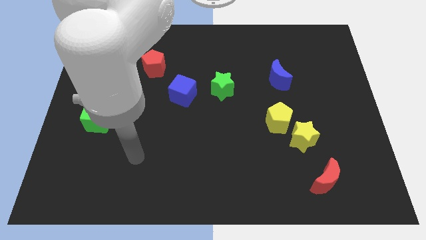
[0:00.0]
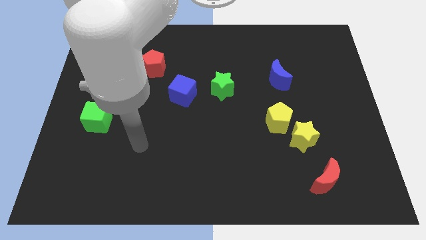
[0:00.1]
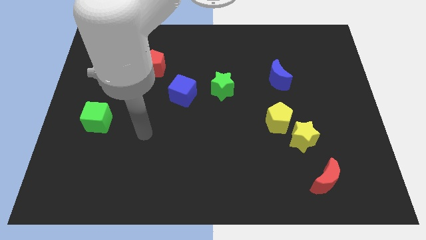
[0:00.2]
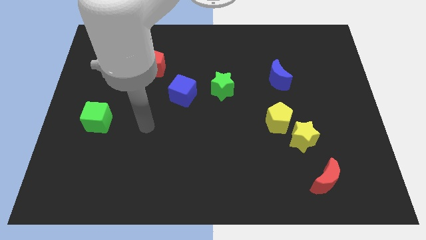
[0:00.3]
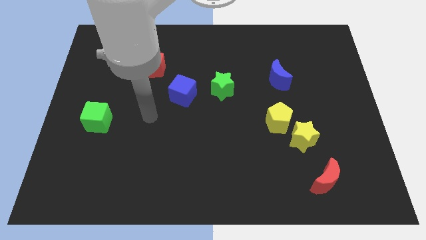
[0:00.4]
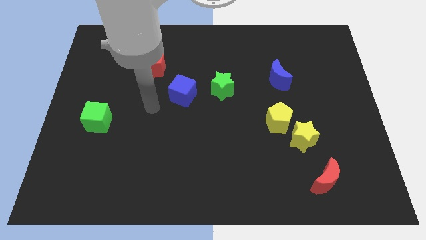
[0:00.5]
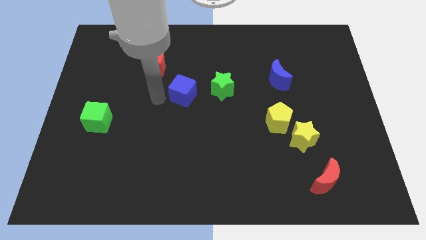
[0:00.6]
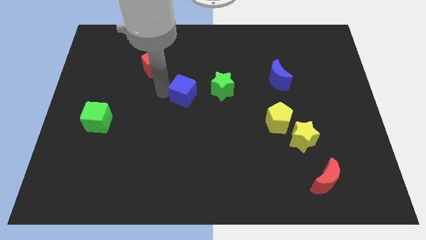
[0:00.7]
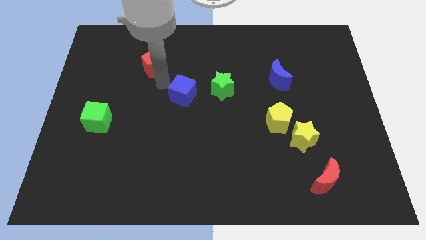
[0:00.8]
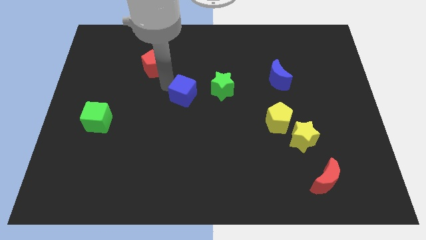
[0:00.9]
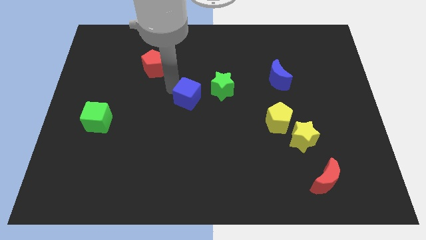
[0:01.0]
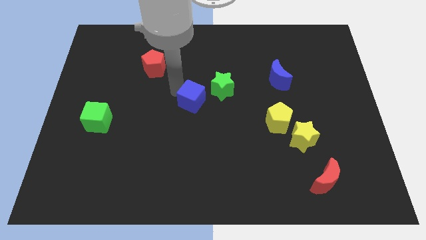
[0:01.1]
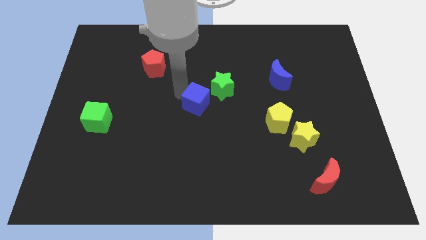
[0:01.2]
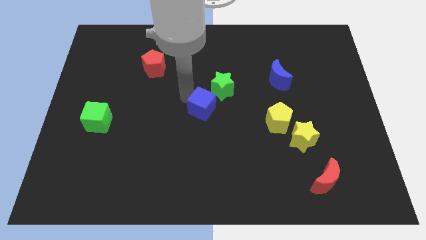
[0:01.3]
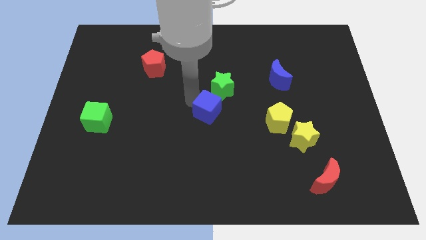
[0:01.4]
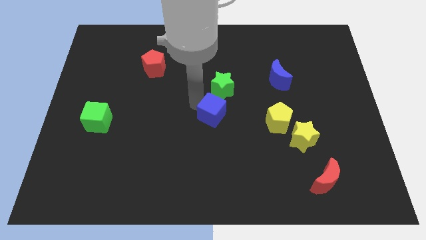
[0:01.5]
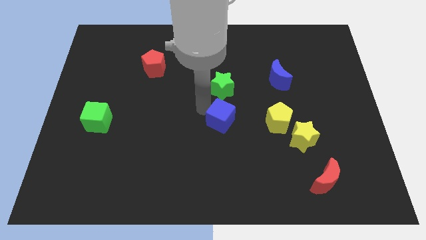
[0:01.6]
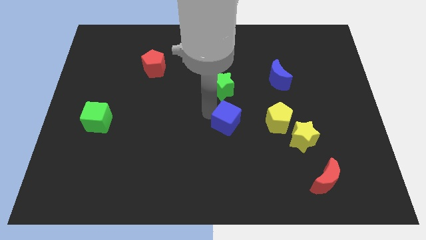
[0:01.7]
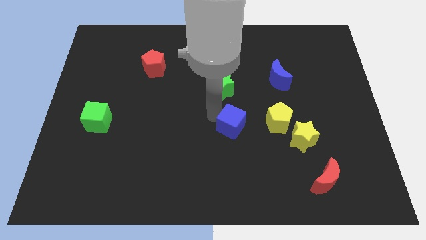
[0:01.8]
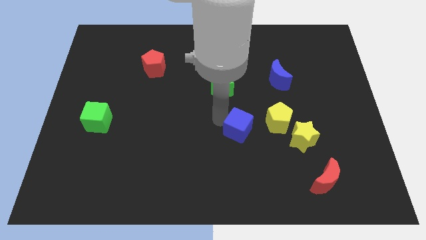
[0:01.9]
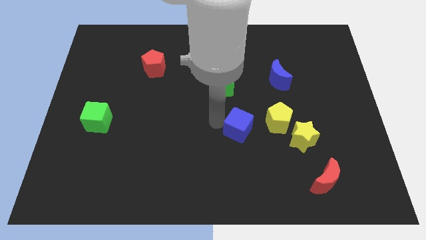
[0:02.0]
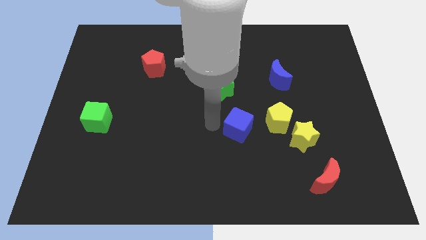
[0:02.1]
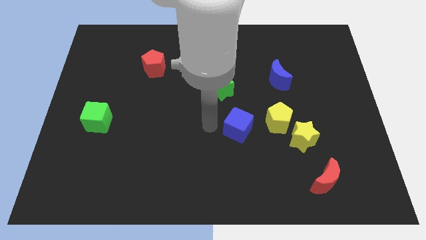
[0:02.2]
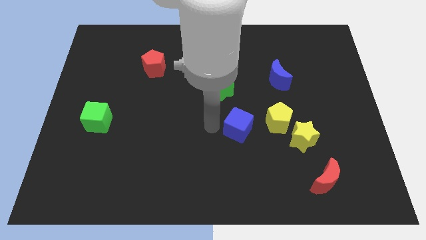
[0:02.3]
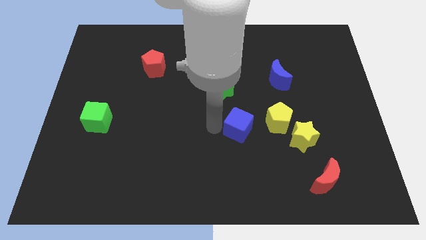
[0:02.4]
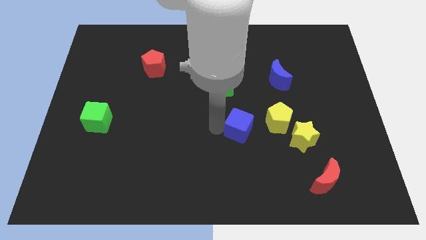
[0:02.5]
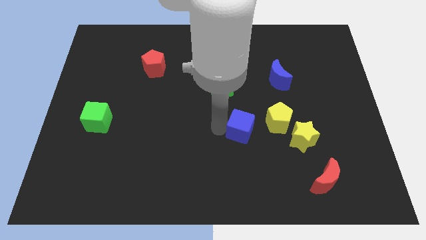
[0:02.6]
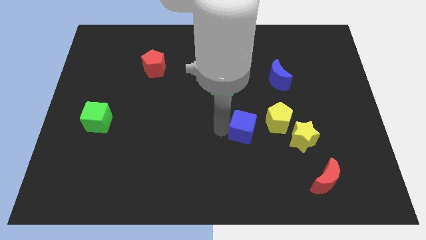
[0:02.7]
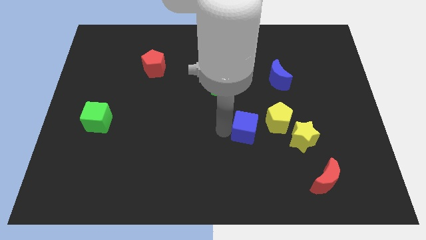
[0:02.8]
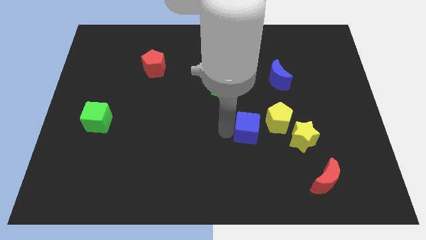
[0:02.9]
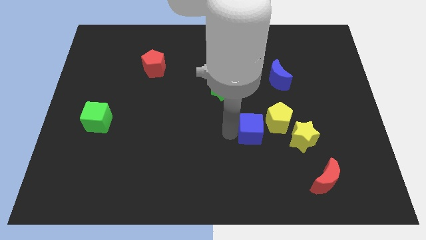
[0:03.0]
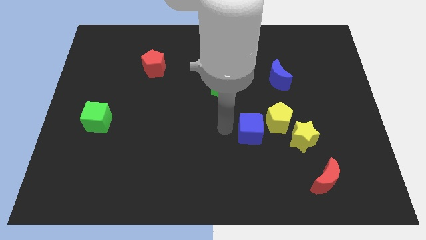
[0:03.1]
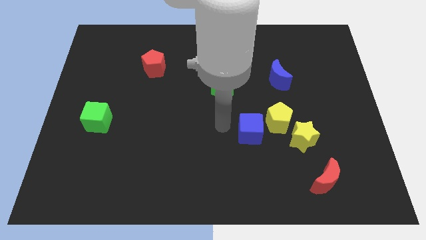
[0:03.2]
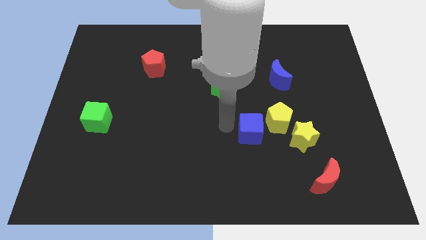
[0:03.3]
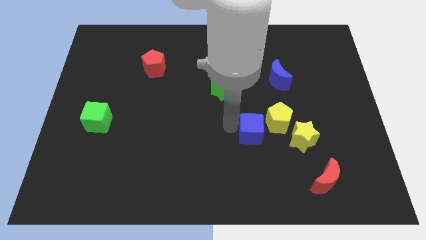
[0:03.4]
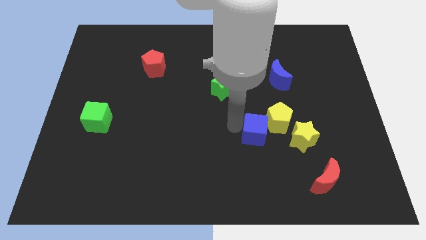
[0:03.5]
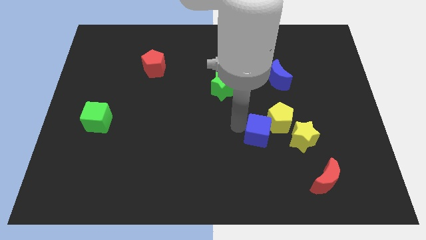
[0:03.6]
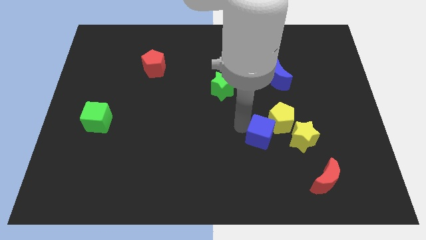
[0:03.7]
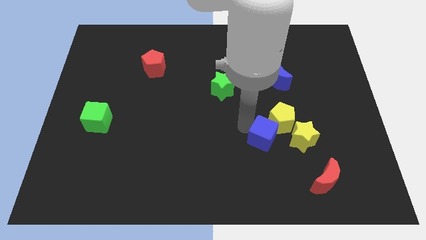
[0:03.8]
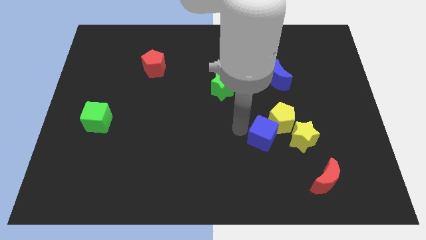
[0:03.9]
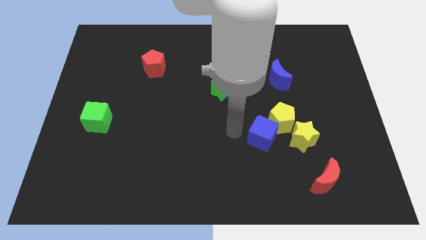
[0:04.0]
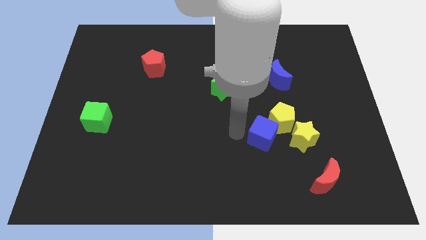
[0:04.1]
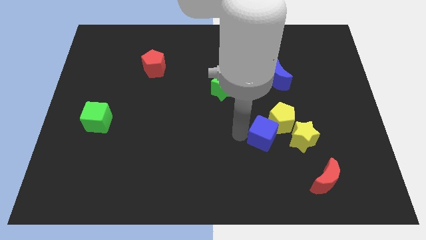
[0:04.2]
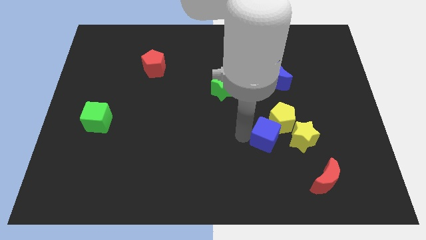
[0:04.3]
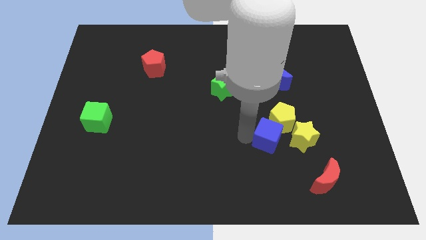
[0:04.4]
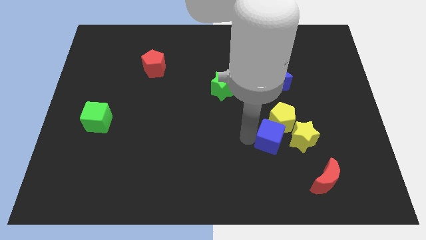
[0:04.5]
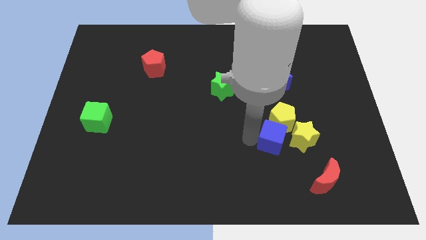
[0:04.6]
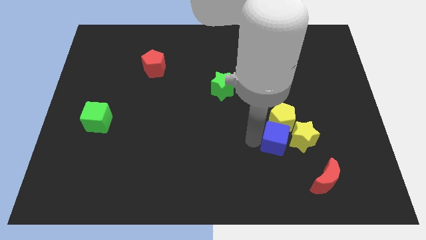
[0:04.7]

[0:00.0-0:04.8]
slide the blue cube close to the yellow star

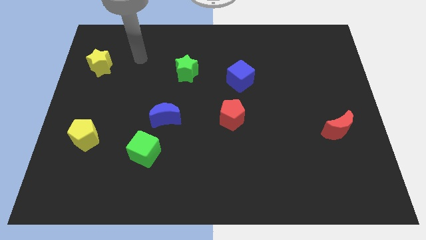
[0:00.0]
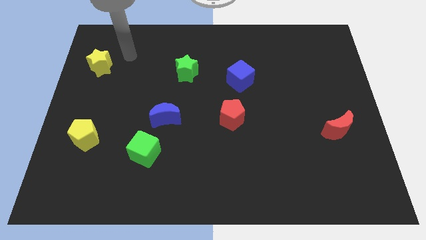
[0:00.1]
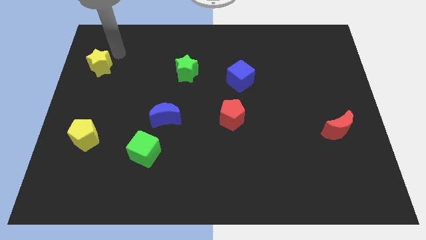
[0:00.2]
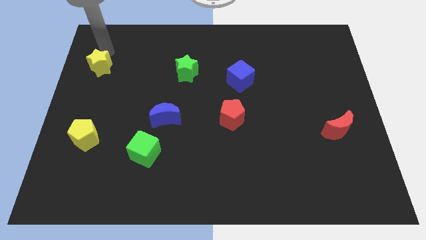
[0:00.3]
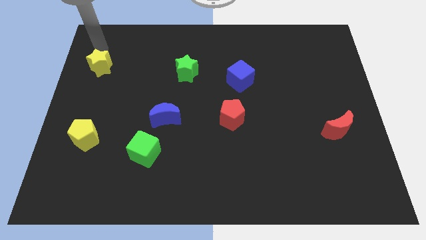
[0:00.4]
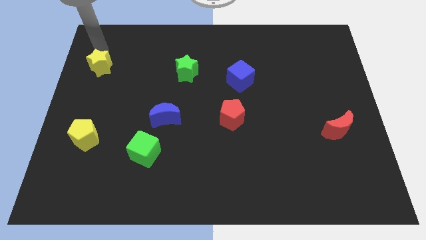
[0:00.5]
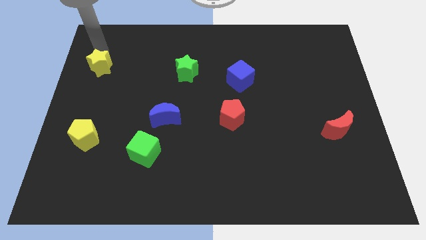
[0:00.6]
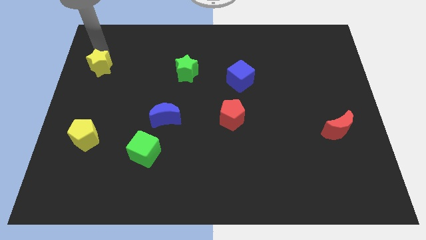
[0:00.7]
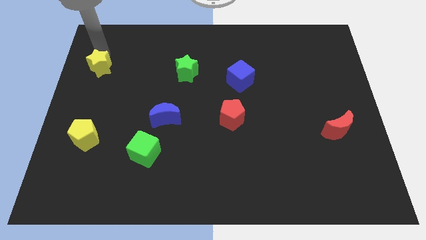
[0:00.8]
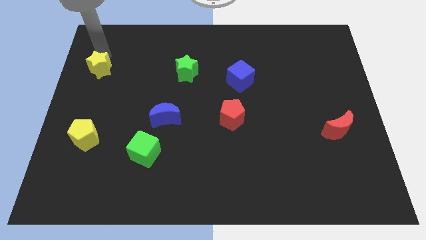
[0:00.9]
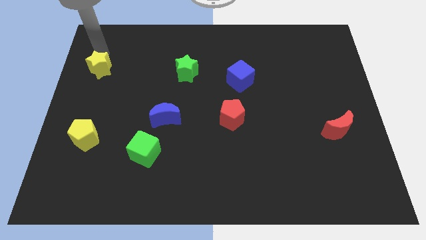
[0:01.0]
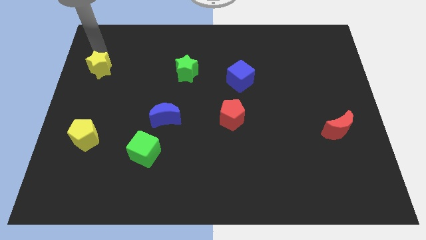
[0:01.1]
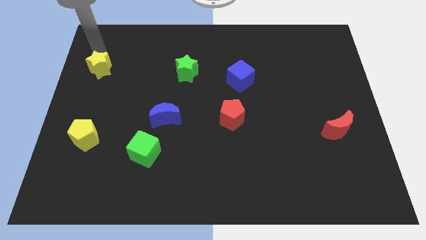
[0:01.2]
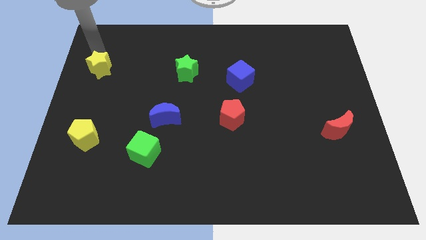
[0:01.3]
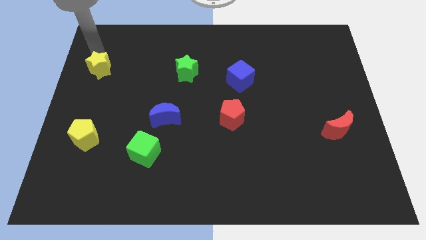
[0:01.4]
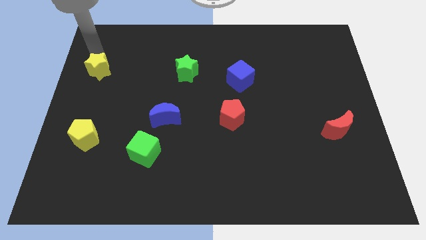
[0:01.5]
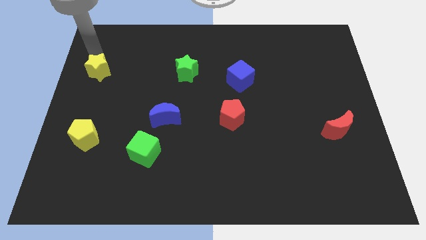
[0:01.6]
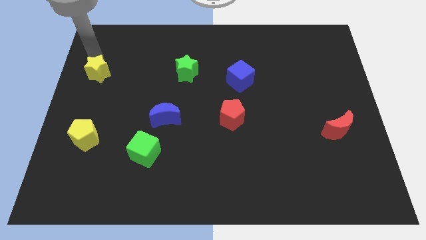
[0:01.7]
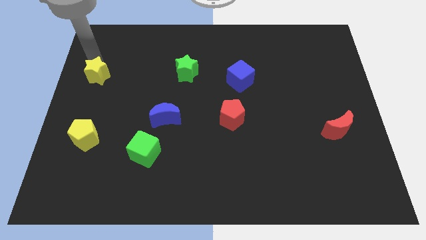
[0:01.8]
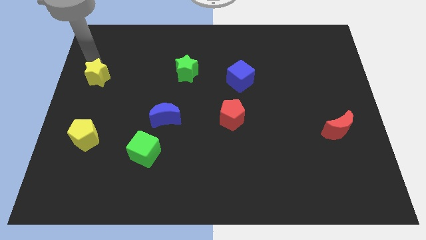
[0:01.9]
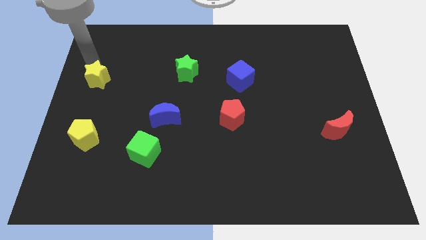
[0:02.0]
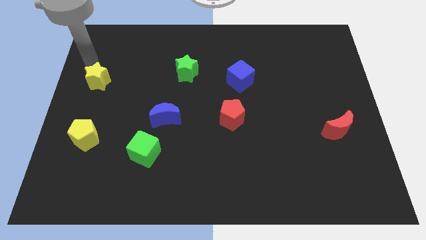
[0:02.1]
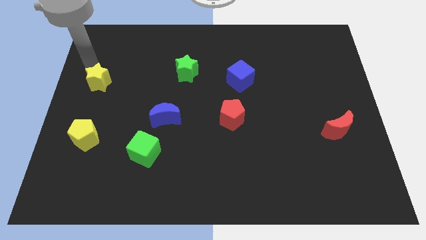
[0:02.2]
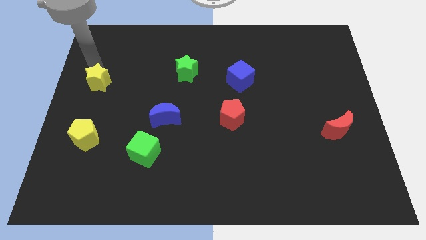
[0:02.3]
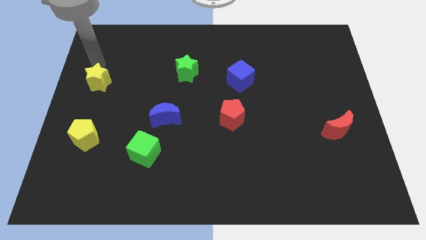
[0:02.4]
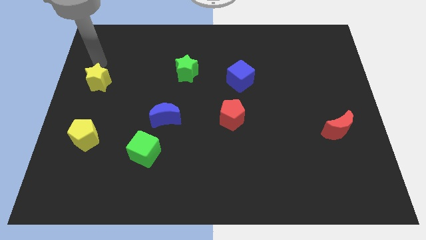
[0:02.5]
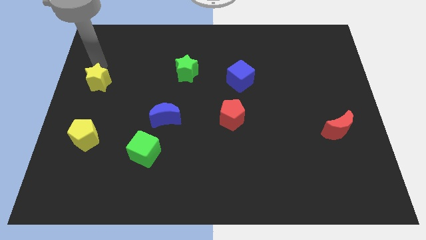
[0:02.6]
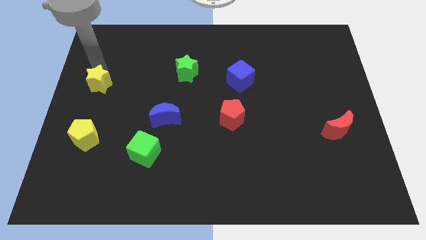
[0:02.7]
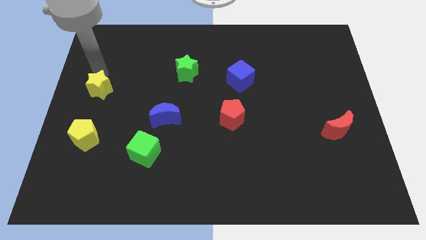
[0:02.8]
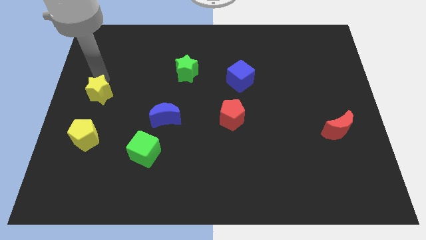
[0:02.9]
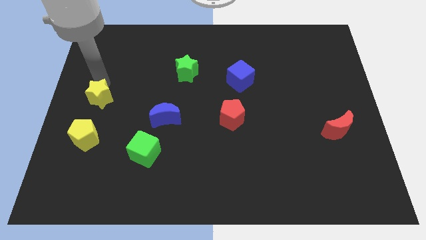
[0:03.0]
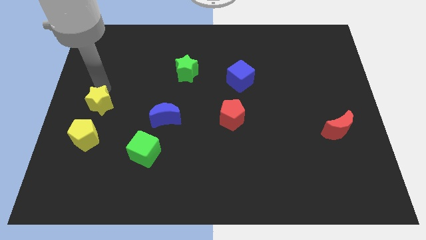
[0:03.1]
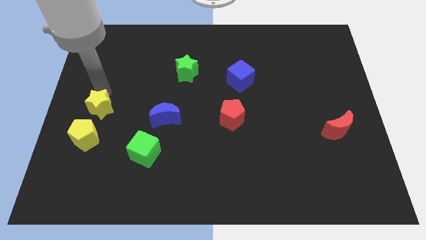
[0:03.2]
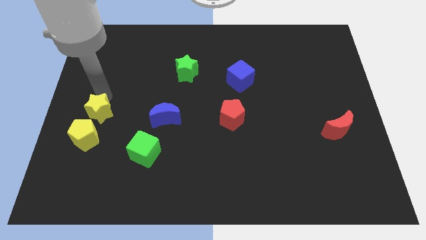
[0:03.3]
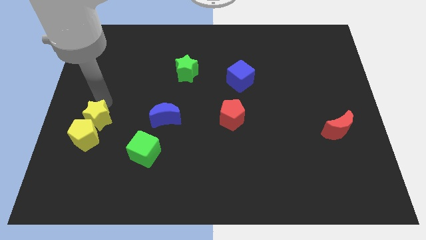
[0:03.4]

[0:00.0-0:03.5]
put the yellow star next to the yellow pentagon
